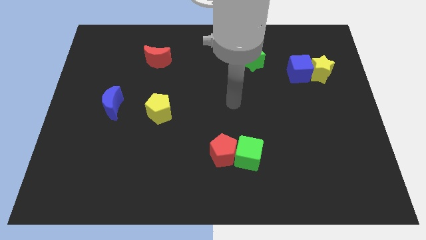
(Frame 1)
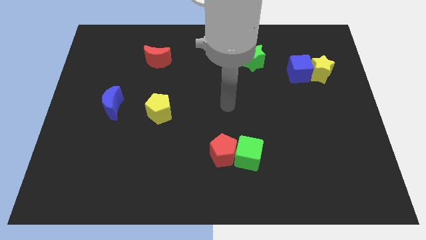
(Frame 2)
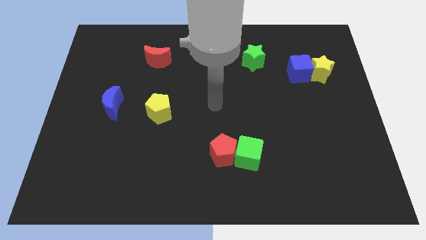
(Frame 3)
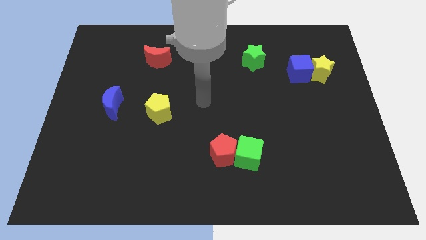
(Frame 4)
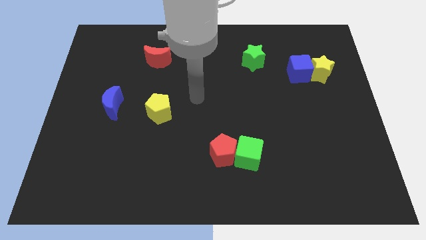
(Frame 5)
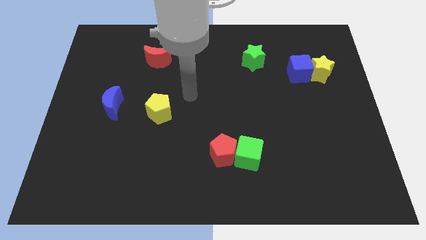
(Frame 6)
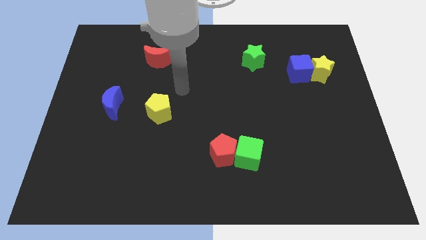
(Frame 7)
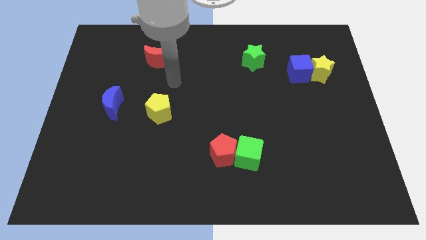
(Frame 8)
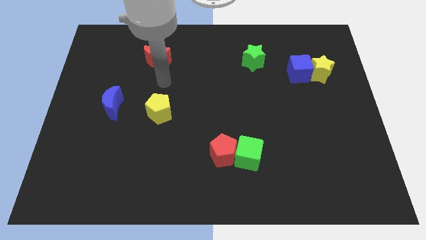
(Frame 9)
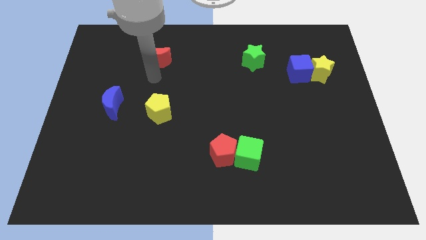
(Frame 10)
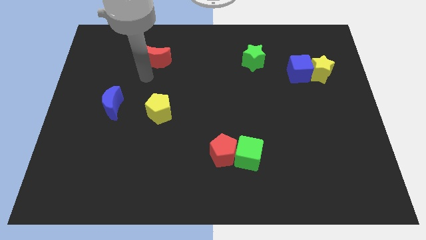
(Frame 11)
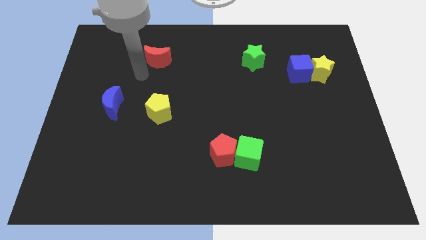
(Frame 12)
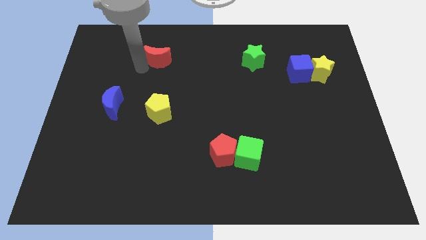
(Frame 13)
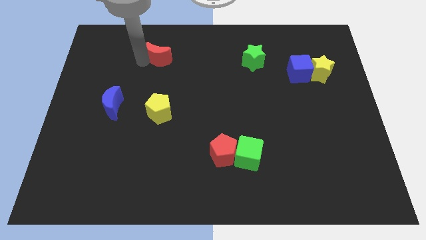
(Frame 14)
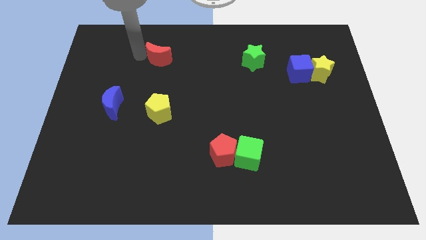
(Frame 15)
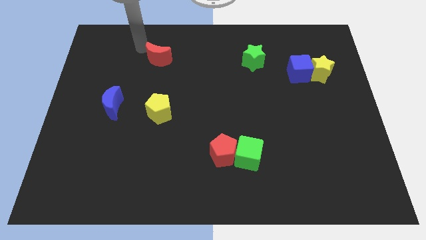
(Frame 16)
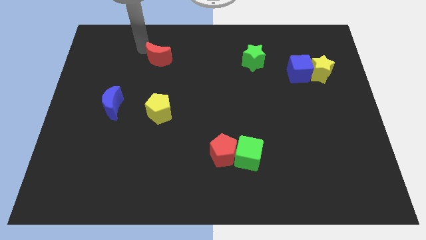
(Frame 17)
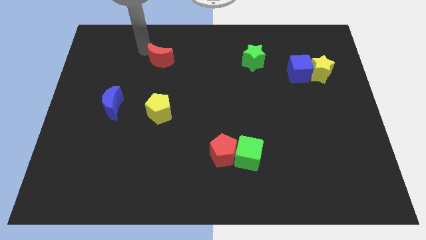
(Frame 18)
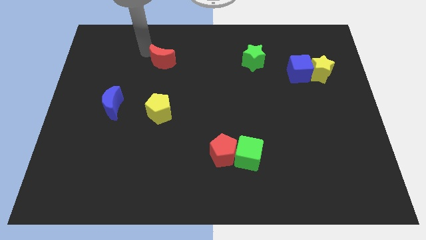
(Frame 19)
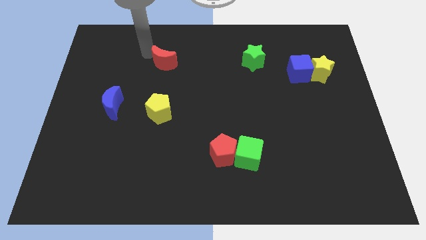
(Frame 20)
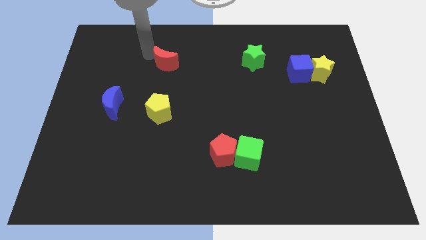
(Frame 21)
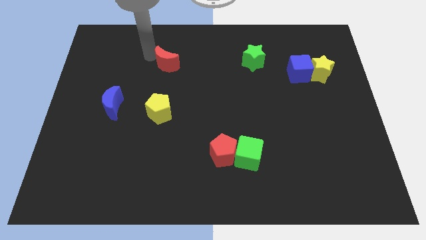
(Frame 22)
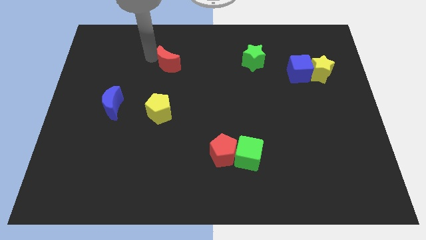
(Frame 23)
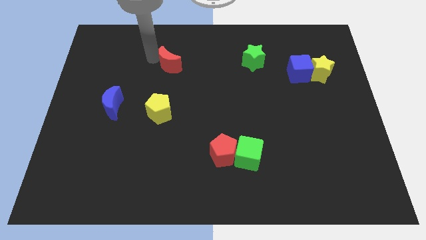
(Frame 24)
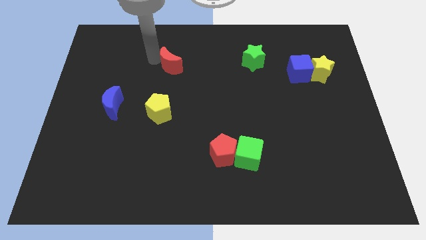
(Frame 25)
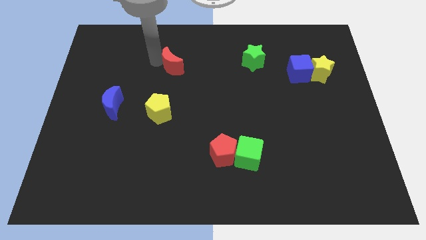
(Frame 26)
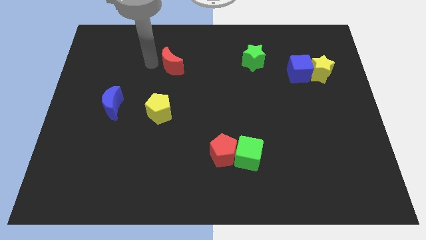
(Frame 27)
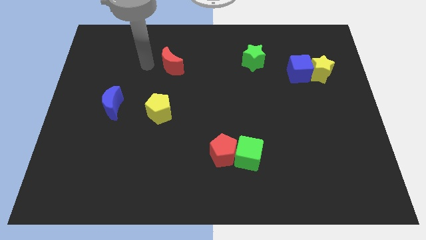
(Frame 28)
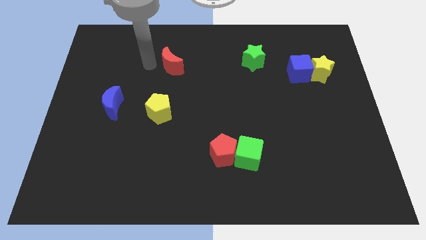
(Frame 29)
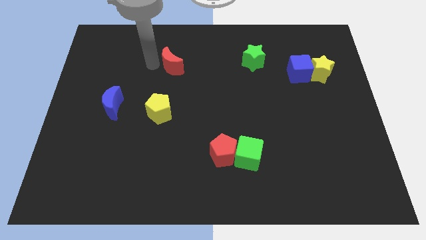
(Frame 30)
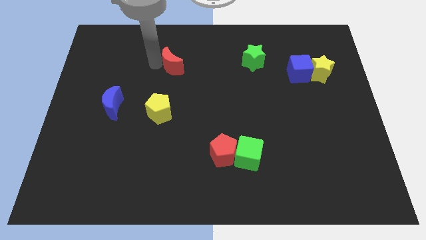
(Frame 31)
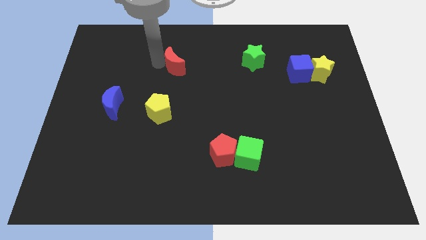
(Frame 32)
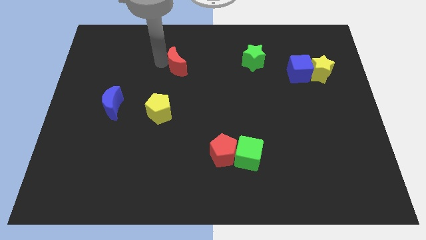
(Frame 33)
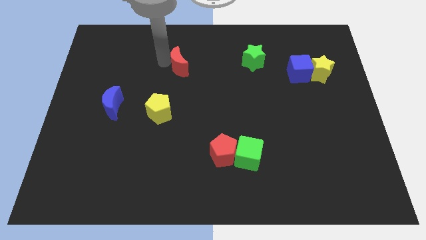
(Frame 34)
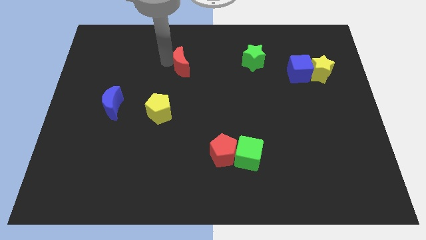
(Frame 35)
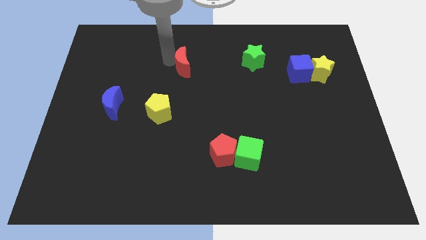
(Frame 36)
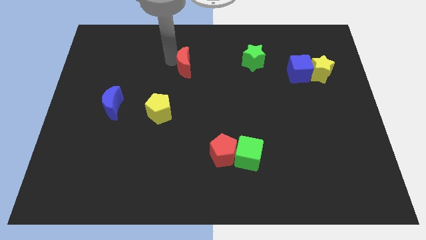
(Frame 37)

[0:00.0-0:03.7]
push the red moon to the right a little bit

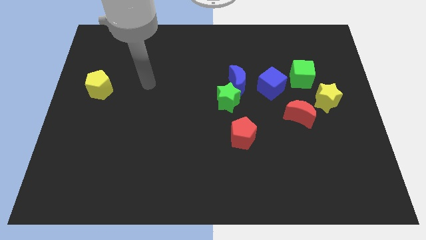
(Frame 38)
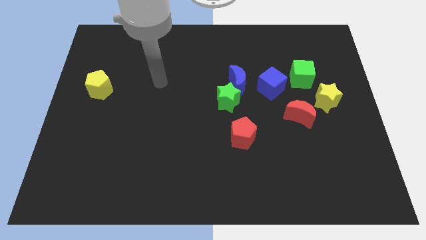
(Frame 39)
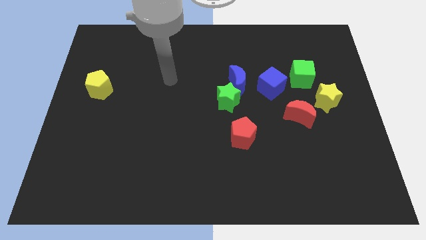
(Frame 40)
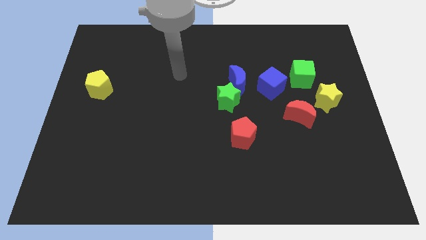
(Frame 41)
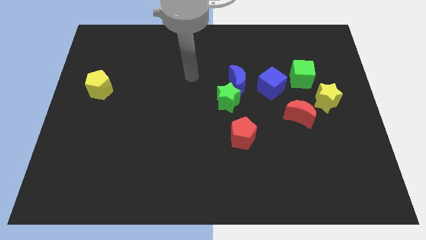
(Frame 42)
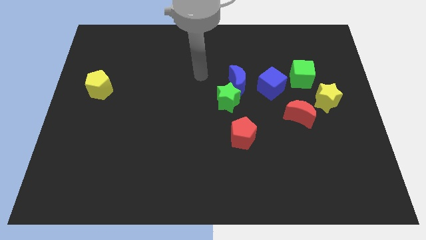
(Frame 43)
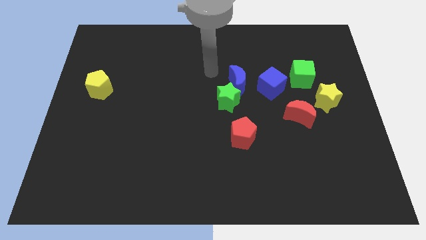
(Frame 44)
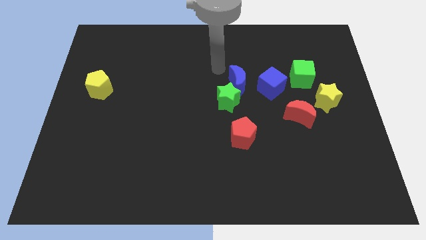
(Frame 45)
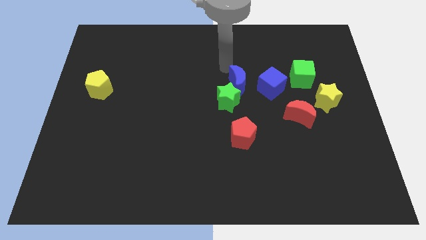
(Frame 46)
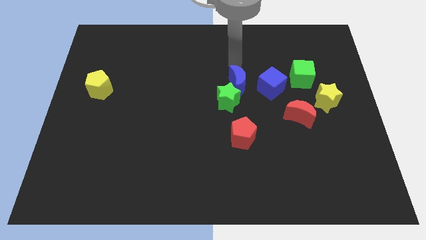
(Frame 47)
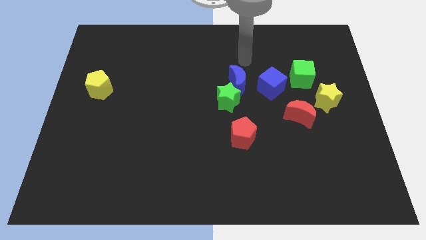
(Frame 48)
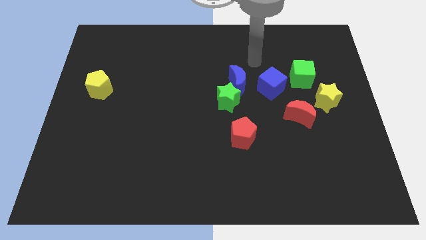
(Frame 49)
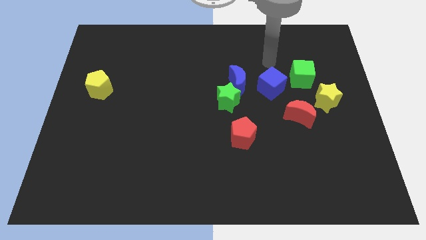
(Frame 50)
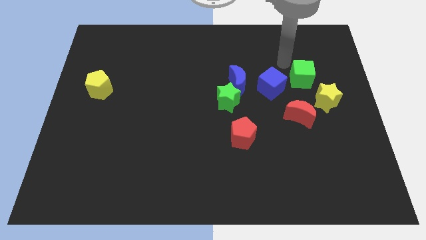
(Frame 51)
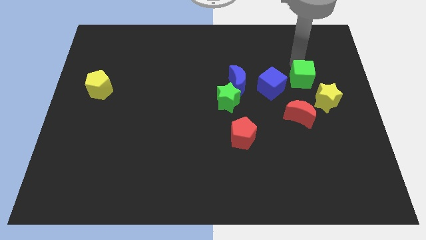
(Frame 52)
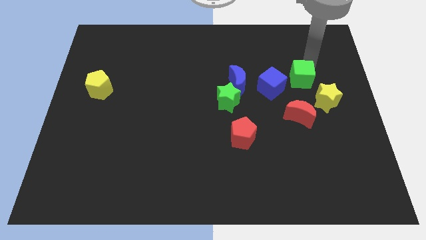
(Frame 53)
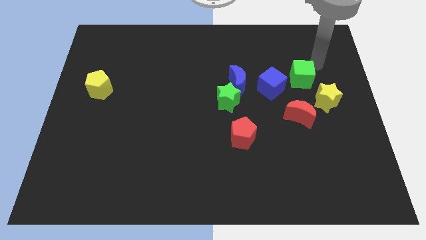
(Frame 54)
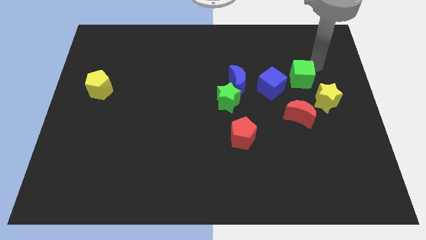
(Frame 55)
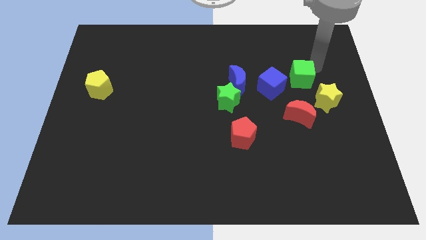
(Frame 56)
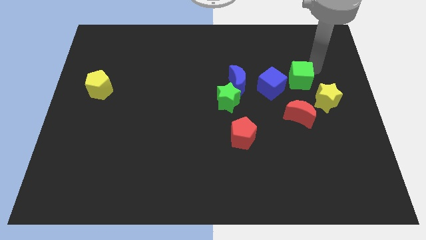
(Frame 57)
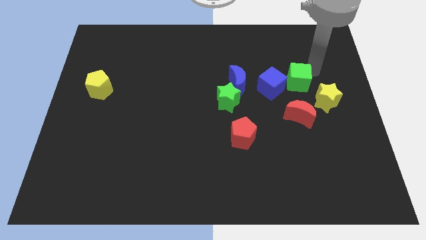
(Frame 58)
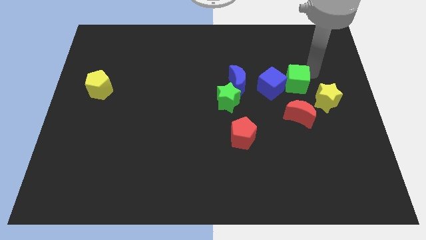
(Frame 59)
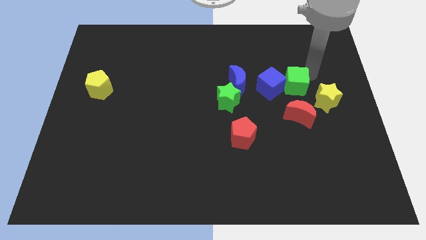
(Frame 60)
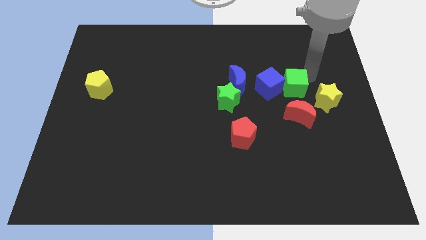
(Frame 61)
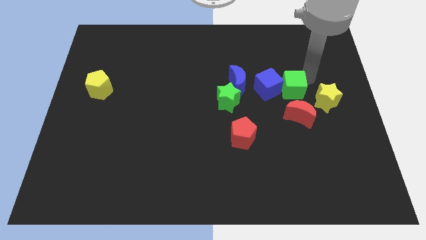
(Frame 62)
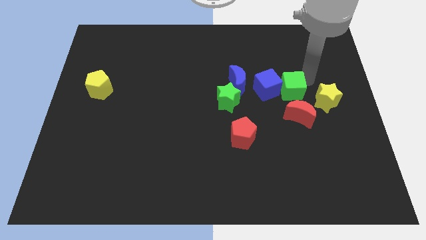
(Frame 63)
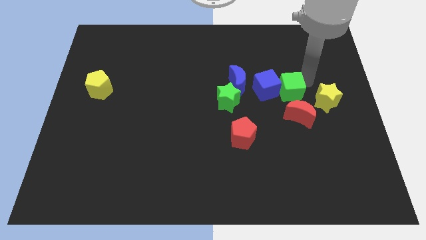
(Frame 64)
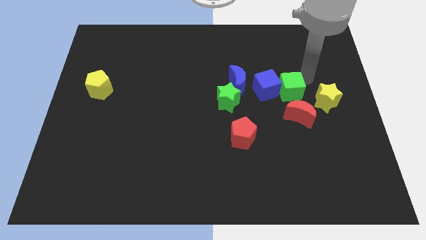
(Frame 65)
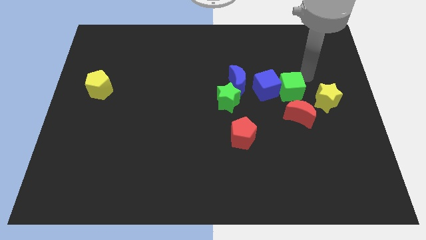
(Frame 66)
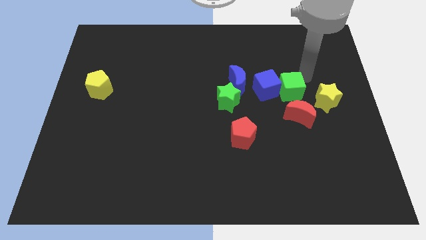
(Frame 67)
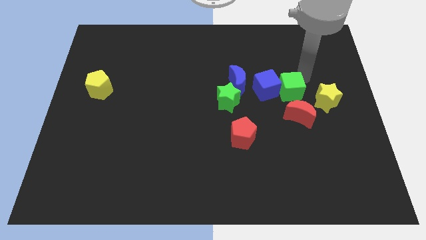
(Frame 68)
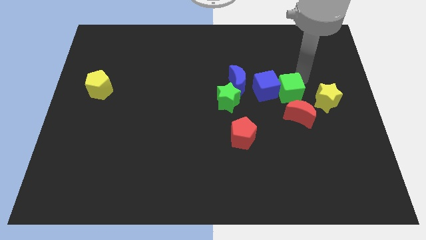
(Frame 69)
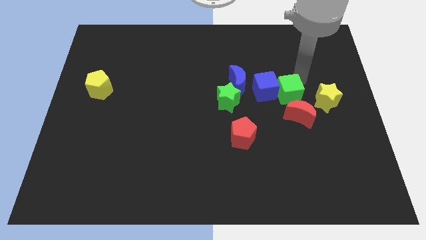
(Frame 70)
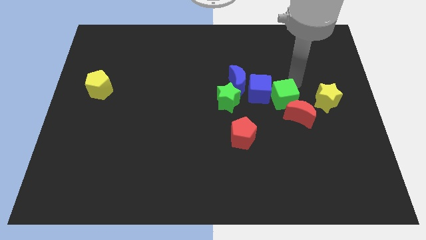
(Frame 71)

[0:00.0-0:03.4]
move the green cube diagonally down and left somewhat

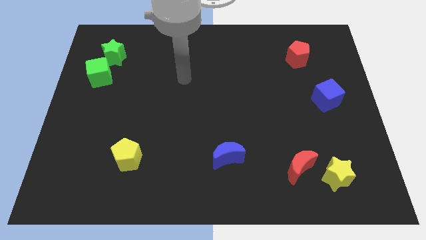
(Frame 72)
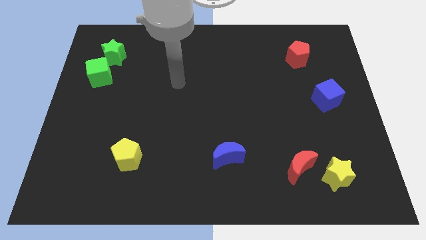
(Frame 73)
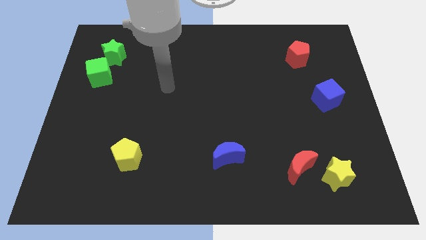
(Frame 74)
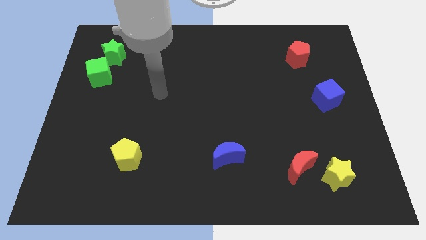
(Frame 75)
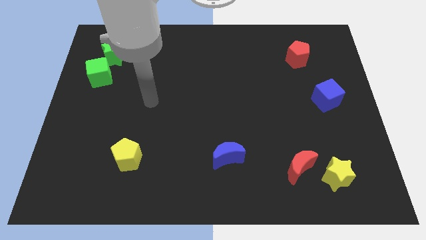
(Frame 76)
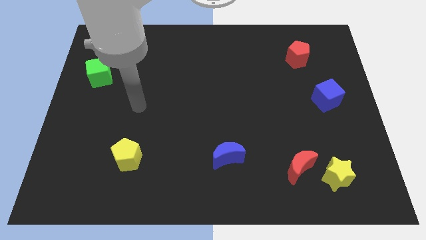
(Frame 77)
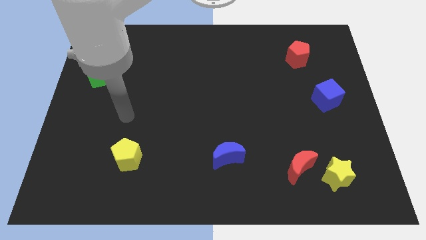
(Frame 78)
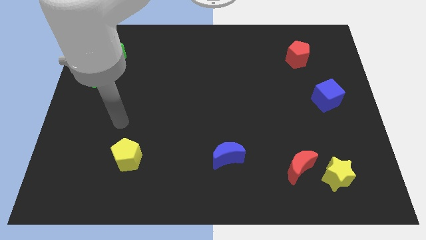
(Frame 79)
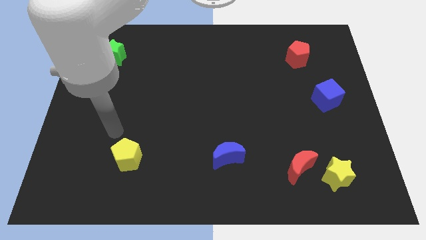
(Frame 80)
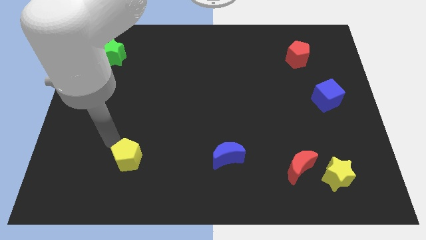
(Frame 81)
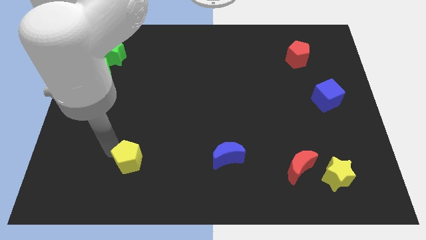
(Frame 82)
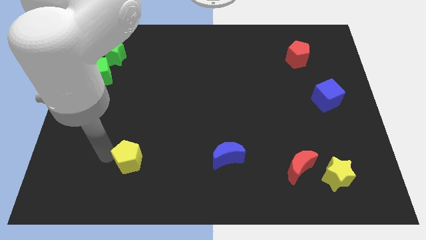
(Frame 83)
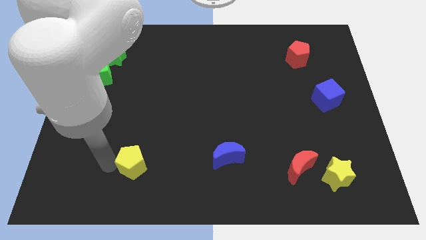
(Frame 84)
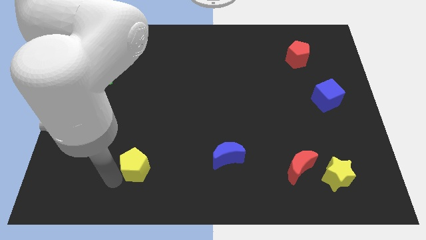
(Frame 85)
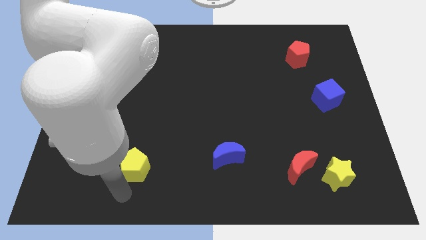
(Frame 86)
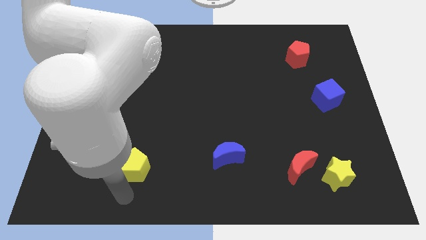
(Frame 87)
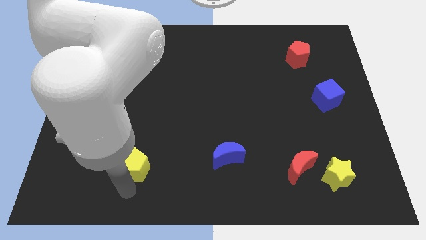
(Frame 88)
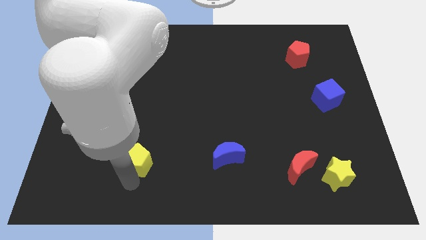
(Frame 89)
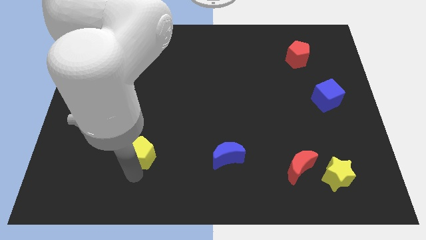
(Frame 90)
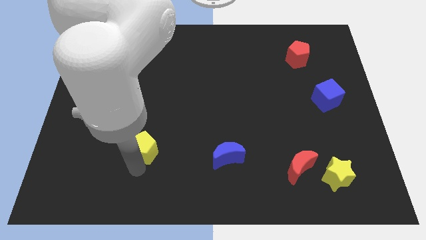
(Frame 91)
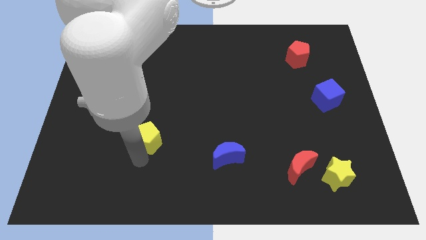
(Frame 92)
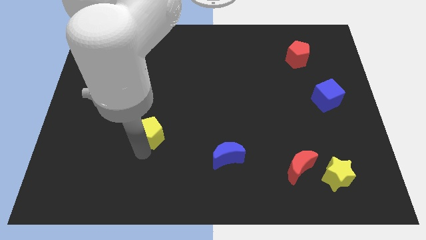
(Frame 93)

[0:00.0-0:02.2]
move the yellow pentagon somewhat up and right diagonally
